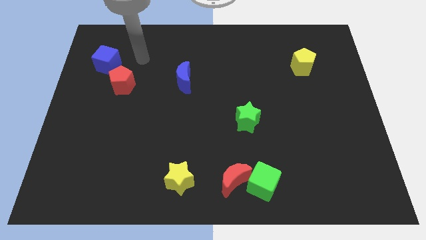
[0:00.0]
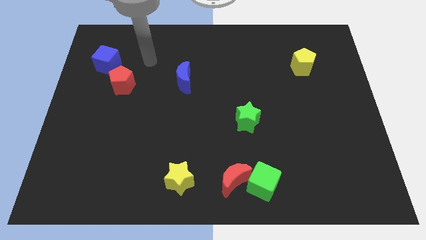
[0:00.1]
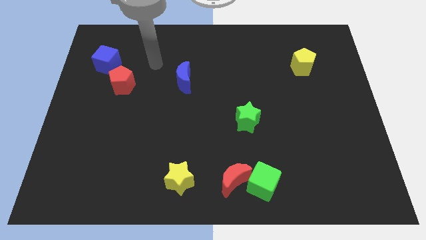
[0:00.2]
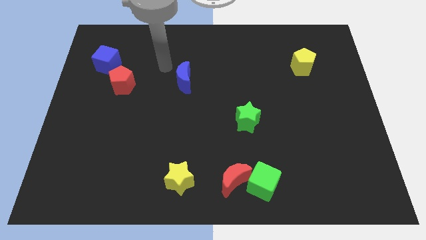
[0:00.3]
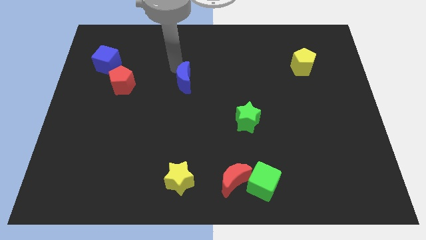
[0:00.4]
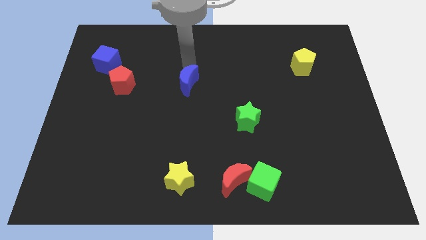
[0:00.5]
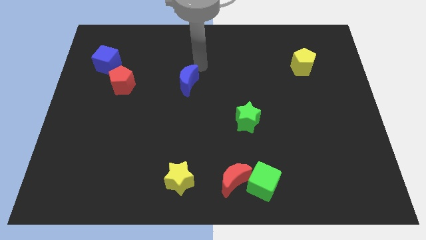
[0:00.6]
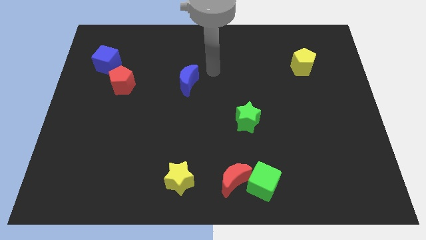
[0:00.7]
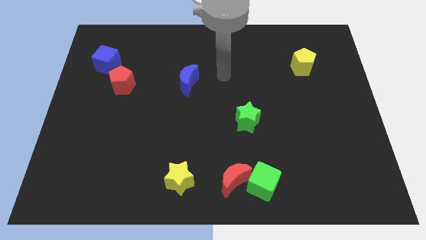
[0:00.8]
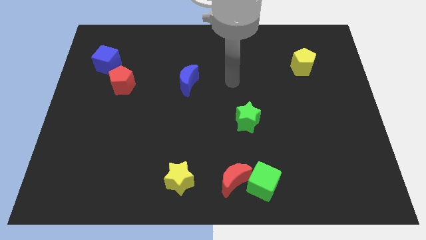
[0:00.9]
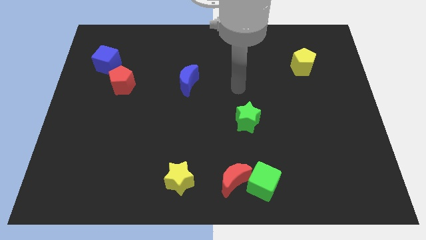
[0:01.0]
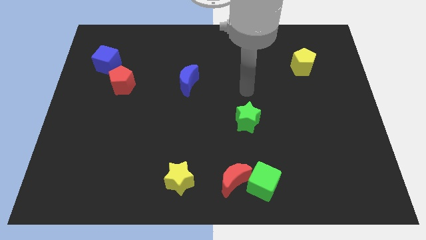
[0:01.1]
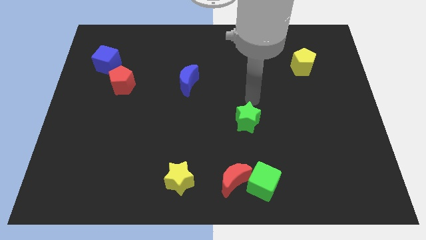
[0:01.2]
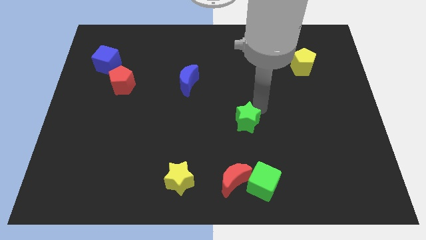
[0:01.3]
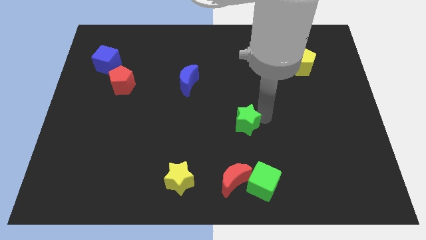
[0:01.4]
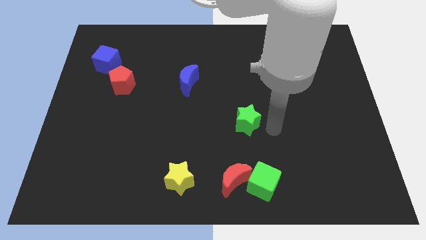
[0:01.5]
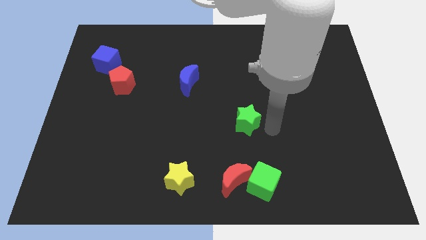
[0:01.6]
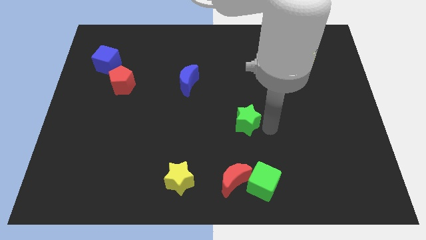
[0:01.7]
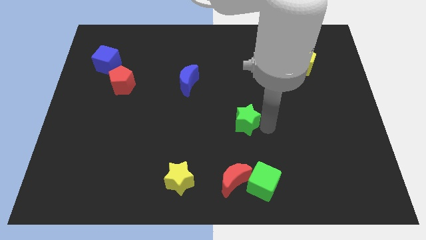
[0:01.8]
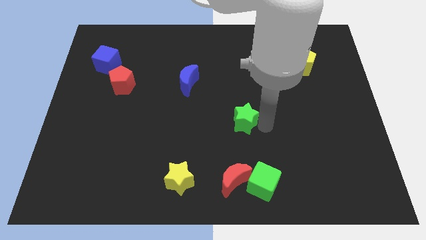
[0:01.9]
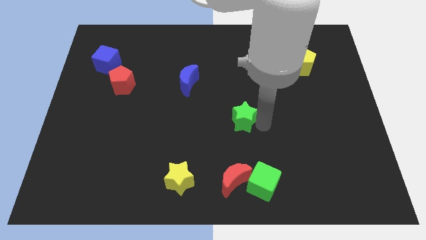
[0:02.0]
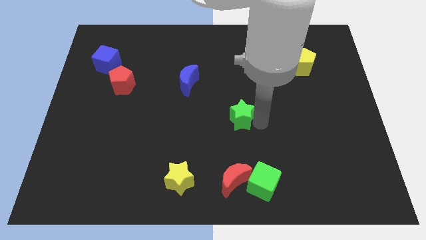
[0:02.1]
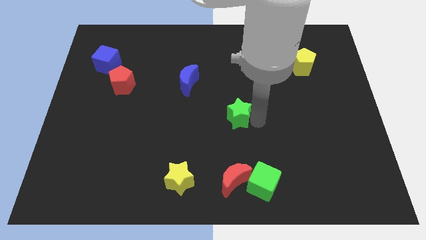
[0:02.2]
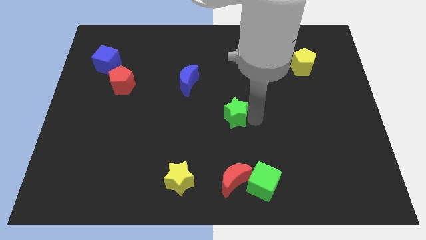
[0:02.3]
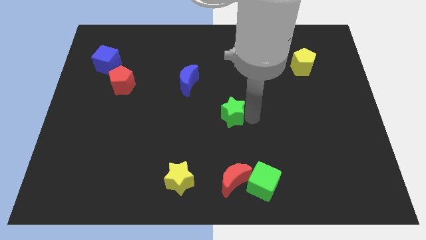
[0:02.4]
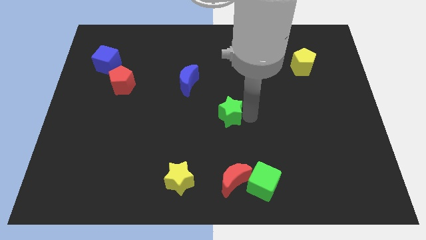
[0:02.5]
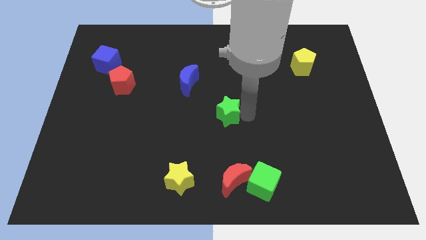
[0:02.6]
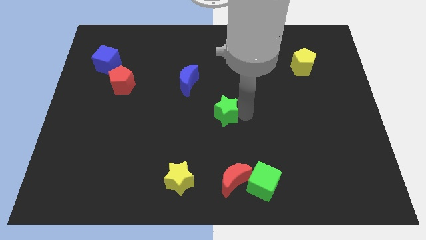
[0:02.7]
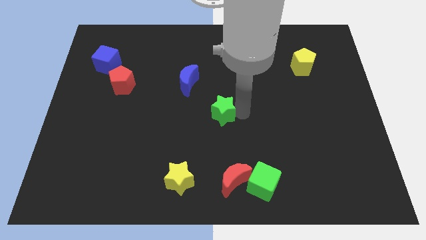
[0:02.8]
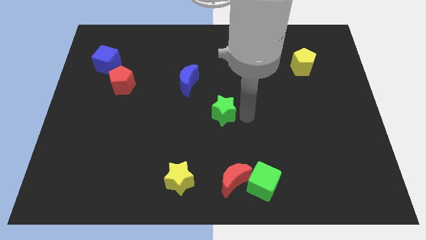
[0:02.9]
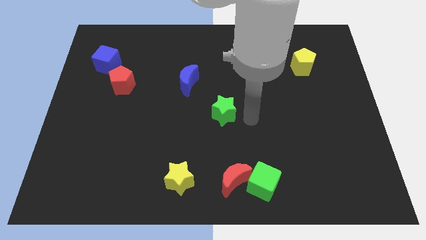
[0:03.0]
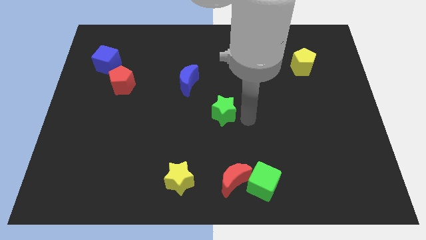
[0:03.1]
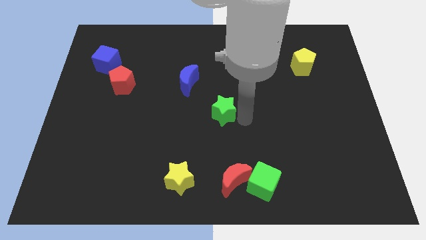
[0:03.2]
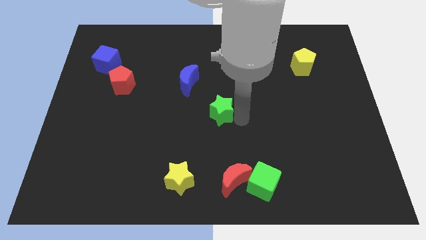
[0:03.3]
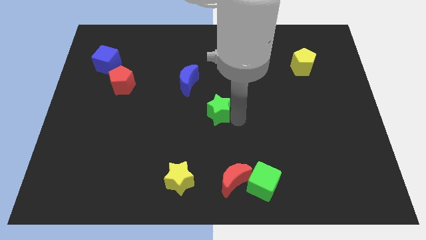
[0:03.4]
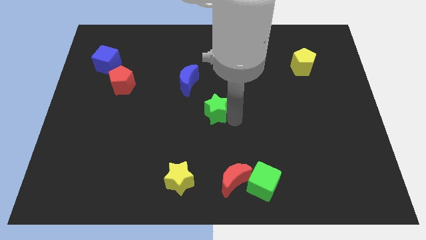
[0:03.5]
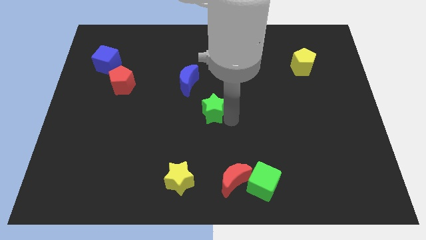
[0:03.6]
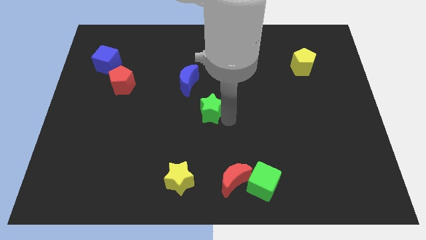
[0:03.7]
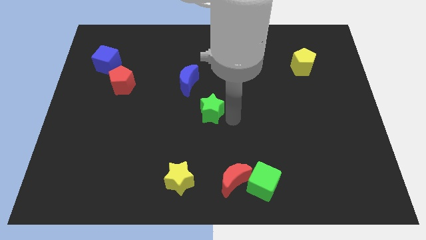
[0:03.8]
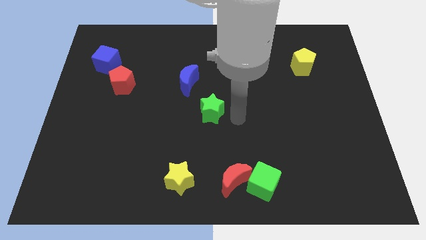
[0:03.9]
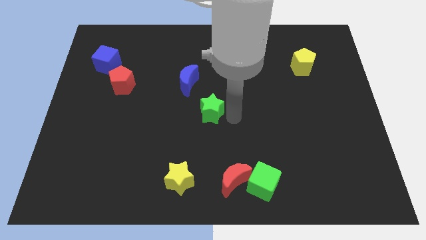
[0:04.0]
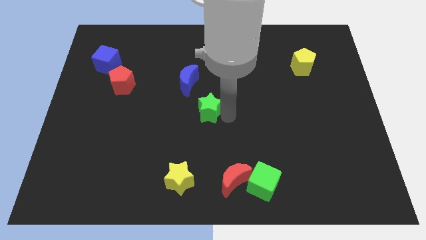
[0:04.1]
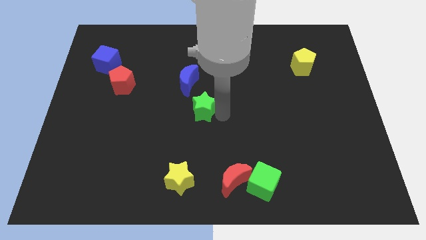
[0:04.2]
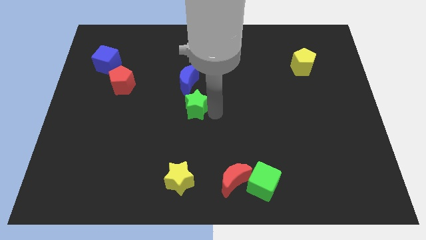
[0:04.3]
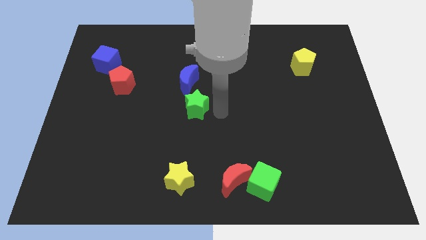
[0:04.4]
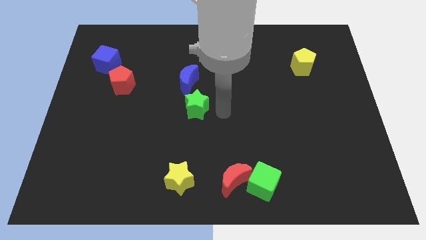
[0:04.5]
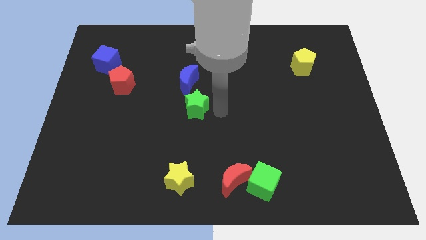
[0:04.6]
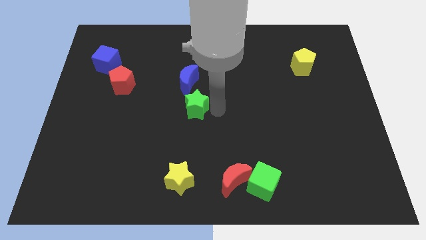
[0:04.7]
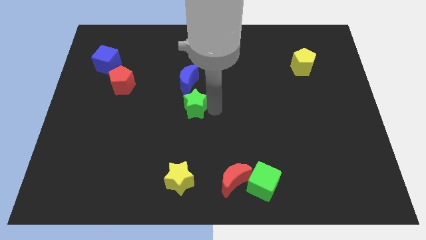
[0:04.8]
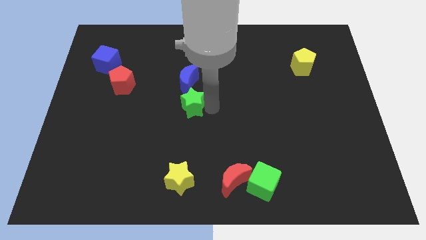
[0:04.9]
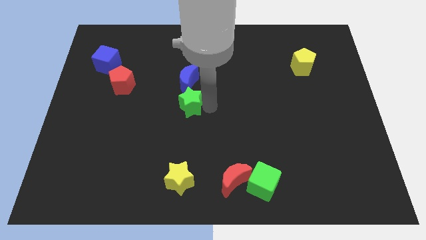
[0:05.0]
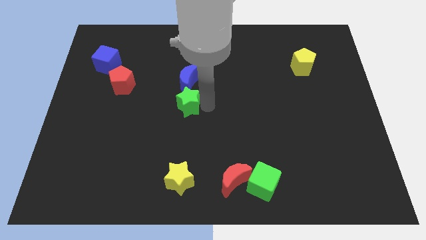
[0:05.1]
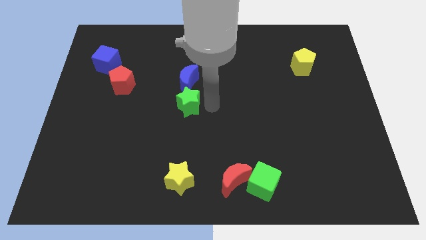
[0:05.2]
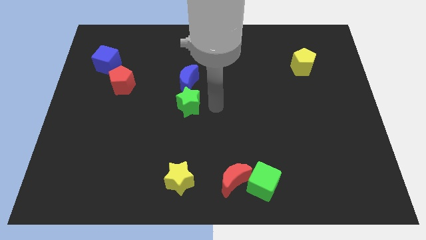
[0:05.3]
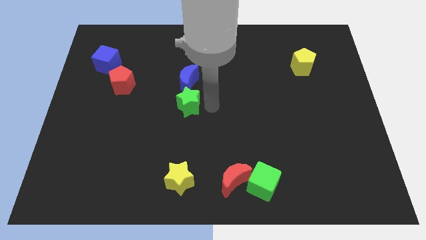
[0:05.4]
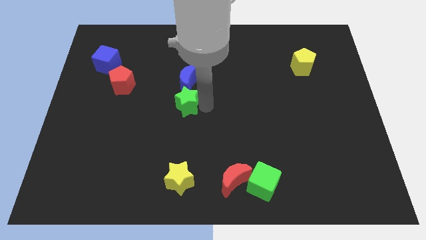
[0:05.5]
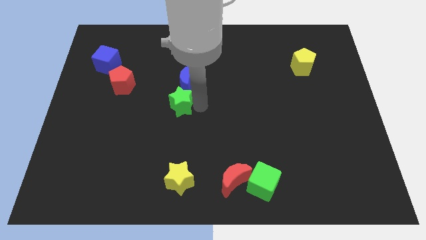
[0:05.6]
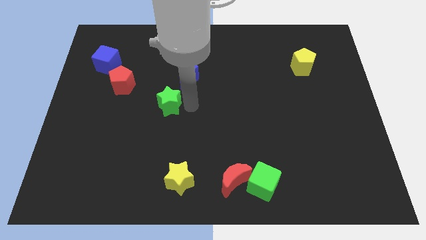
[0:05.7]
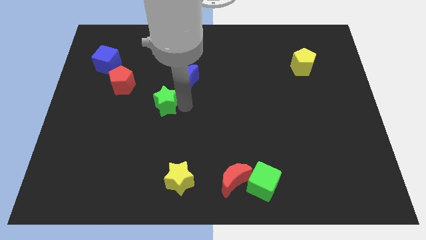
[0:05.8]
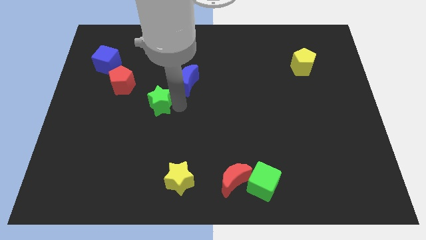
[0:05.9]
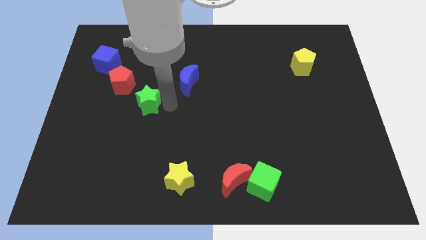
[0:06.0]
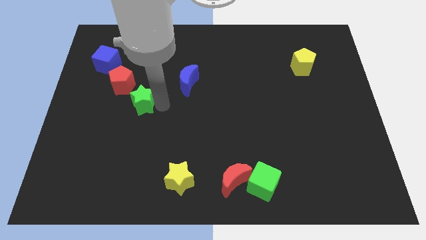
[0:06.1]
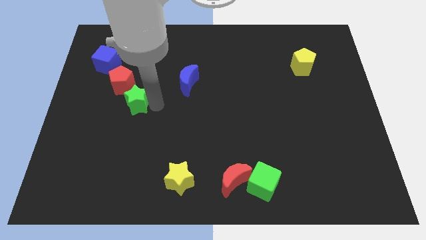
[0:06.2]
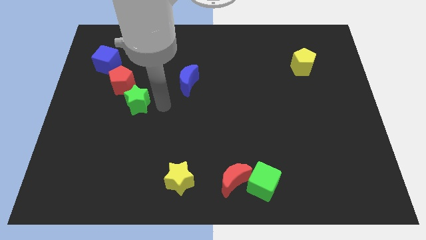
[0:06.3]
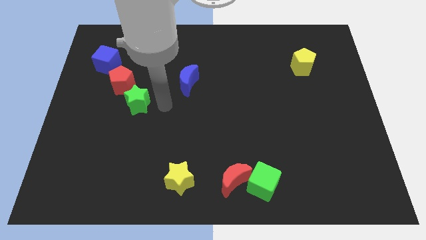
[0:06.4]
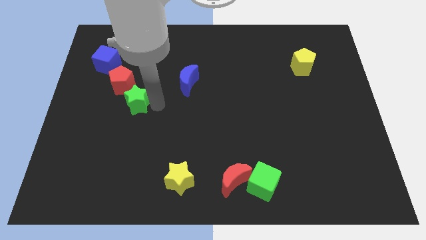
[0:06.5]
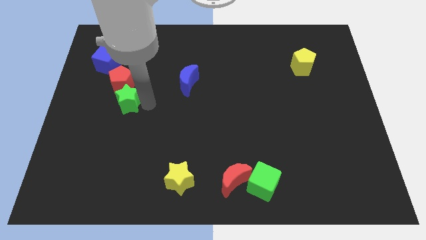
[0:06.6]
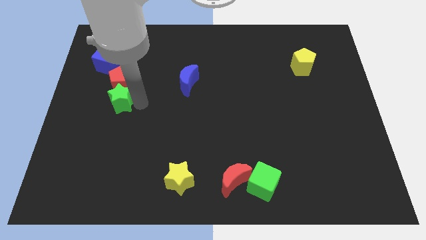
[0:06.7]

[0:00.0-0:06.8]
slide the green star to the bottom left of the red pentagon
